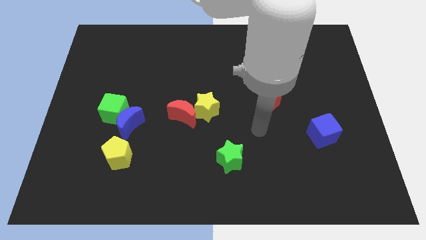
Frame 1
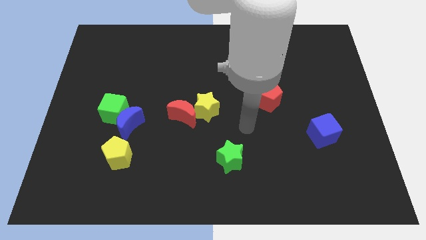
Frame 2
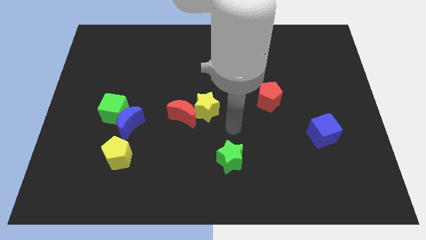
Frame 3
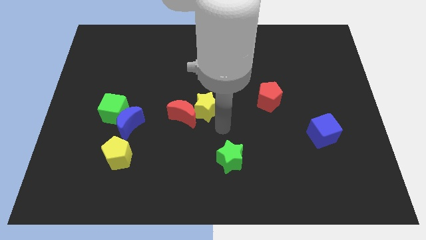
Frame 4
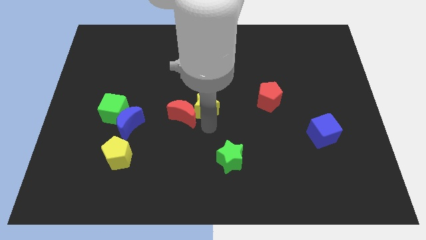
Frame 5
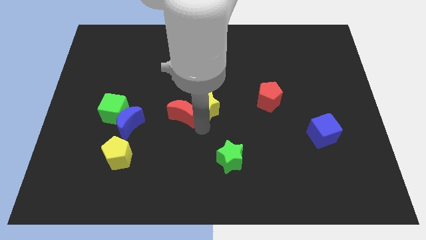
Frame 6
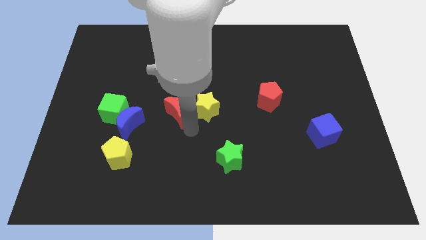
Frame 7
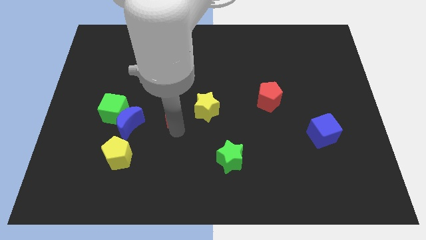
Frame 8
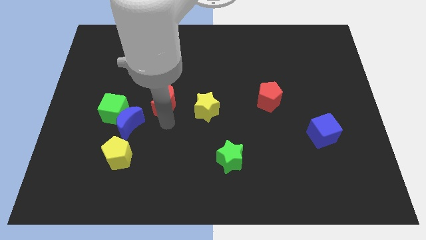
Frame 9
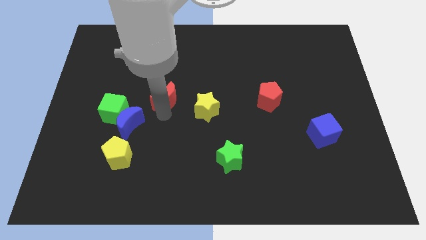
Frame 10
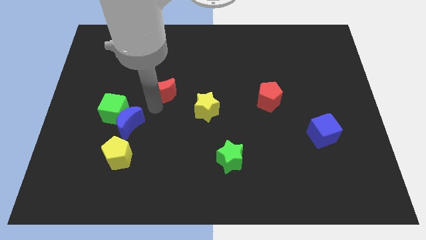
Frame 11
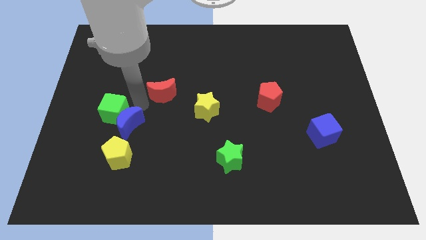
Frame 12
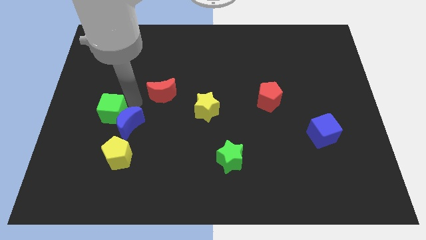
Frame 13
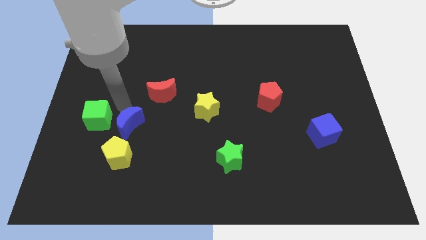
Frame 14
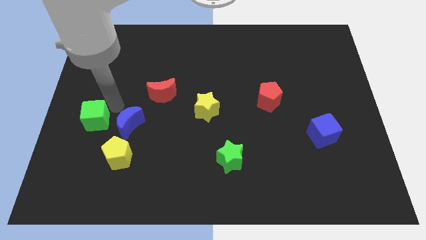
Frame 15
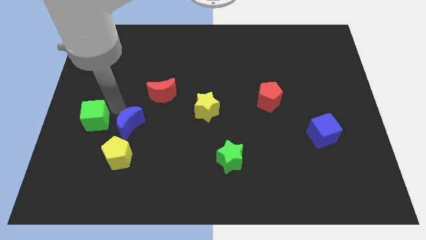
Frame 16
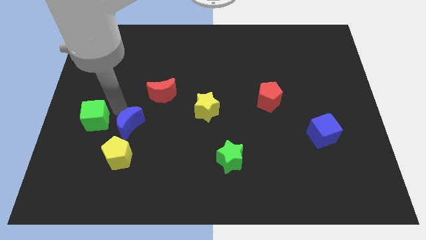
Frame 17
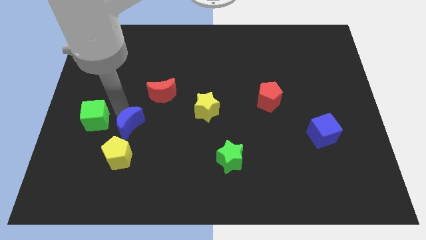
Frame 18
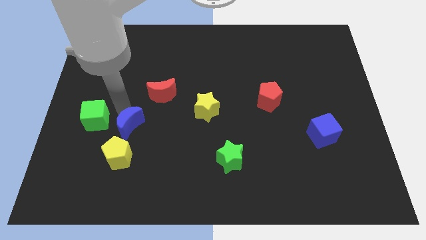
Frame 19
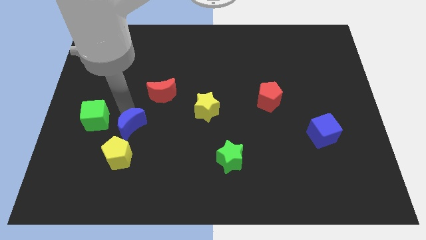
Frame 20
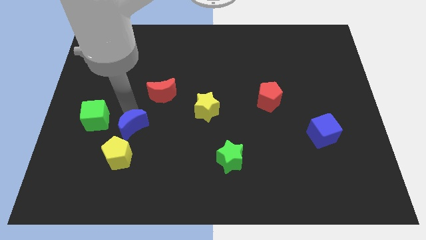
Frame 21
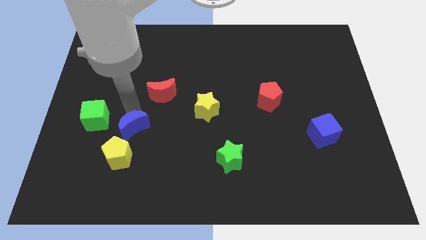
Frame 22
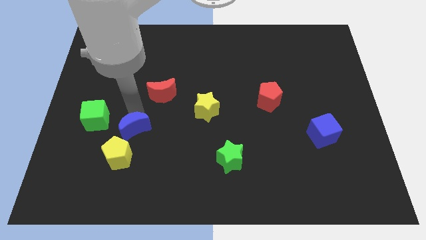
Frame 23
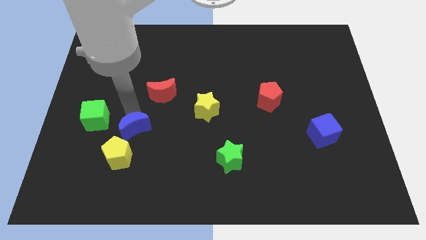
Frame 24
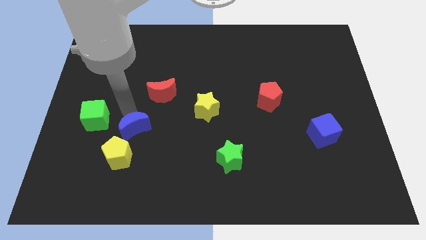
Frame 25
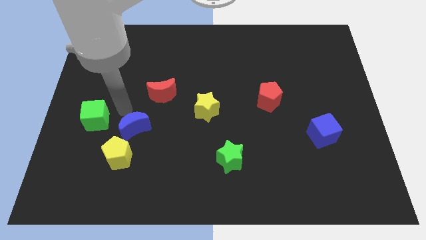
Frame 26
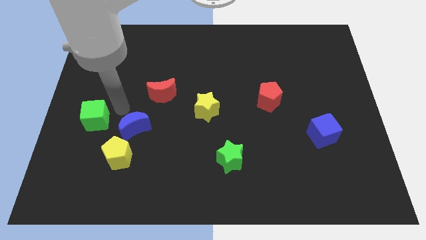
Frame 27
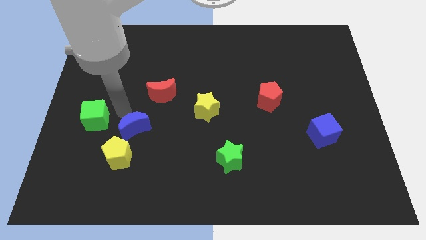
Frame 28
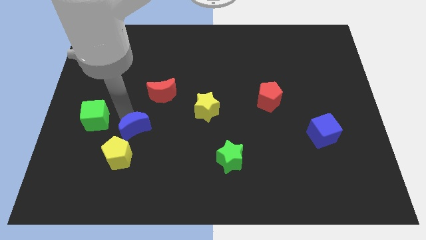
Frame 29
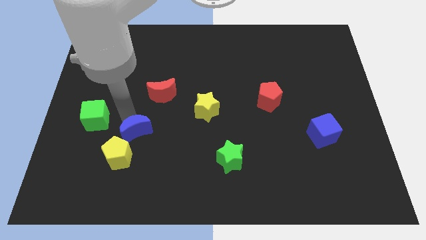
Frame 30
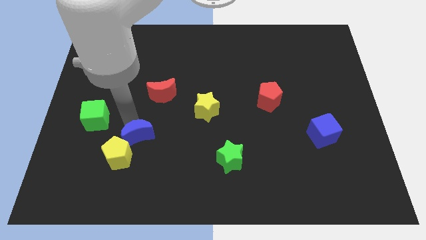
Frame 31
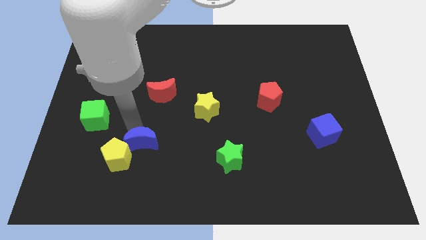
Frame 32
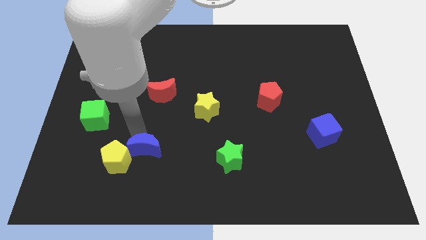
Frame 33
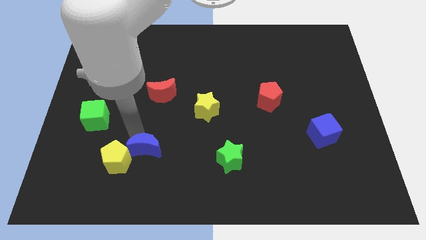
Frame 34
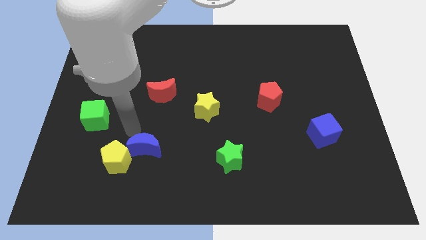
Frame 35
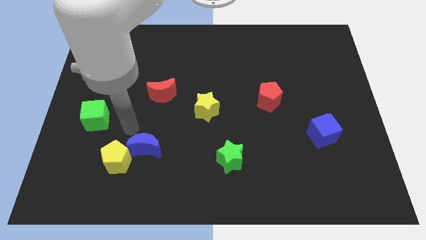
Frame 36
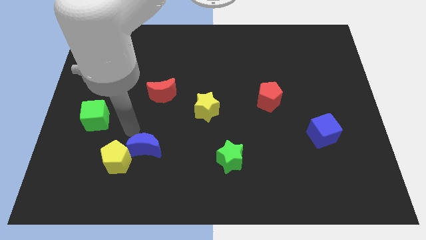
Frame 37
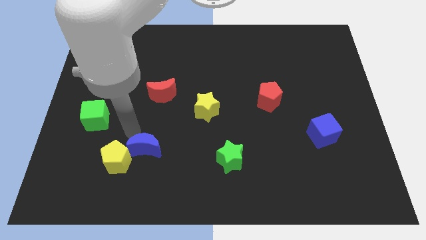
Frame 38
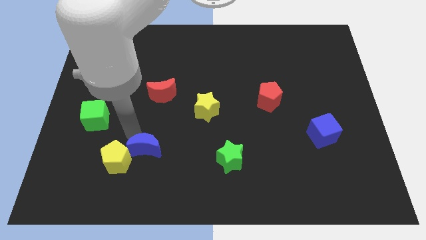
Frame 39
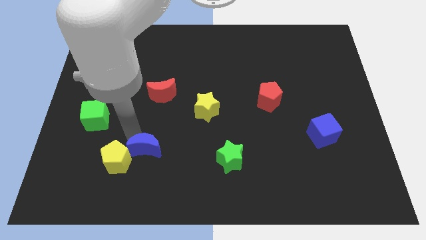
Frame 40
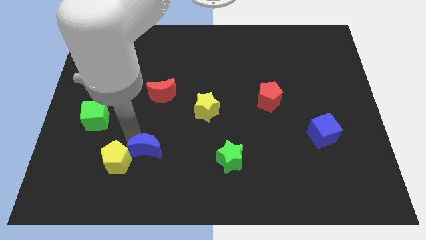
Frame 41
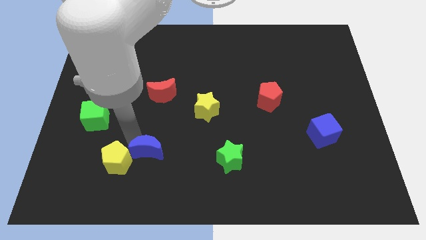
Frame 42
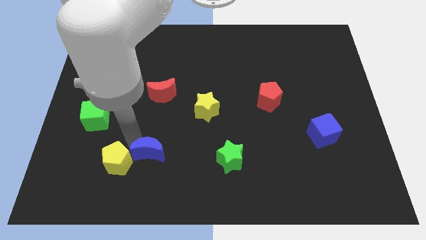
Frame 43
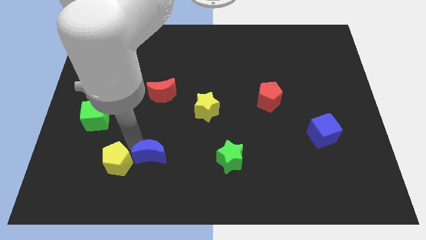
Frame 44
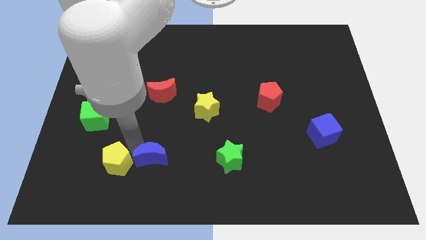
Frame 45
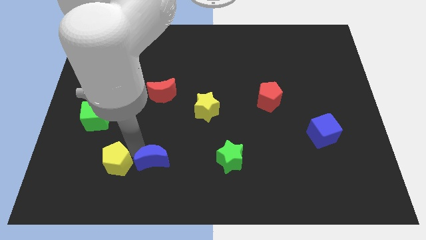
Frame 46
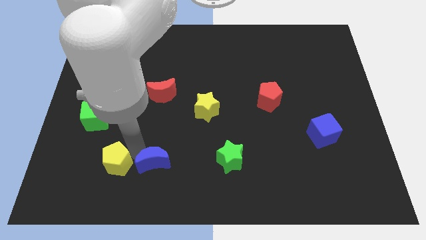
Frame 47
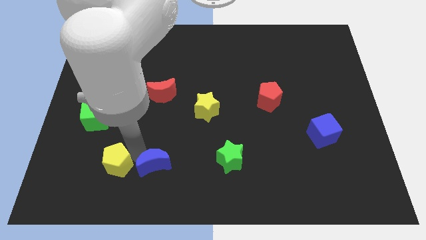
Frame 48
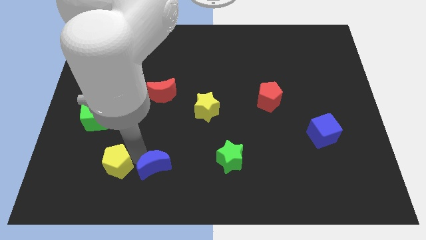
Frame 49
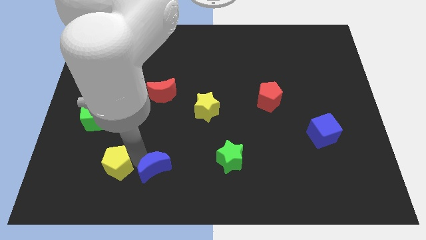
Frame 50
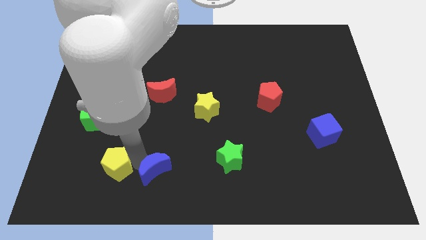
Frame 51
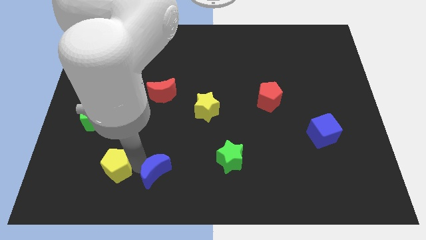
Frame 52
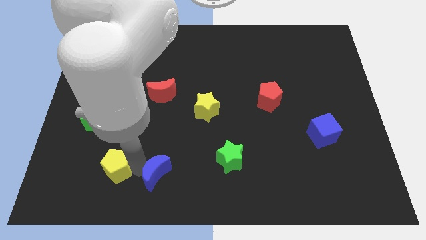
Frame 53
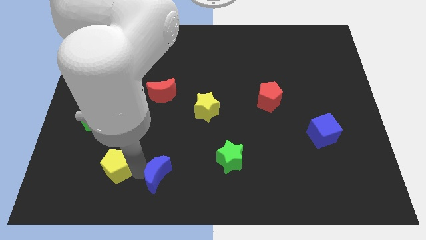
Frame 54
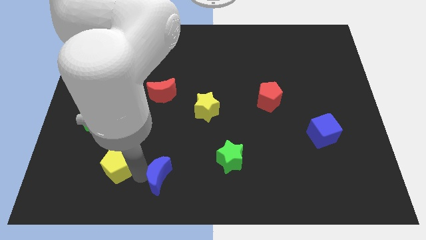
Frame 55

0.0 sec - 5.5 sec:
slide the blue moon to the bottom side

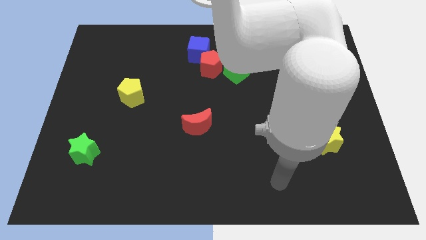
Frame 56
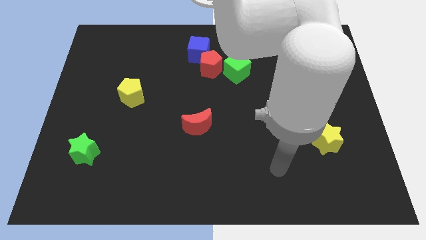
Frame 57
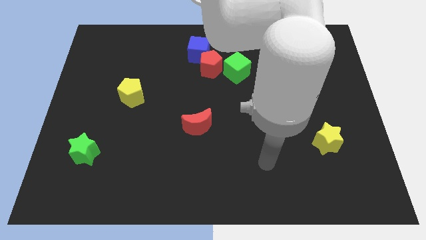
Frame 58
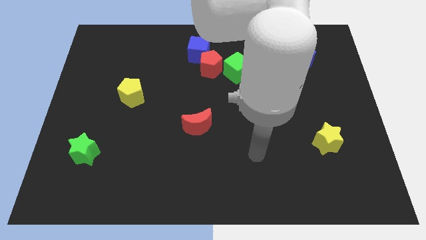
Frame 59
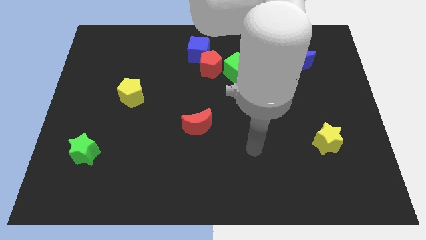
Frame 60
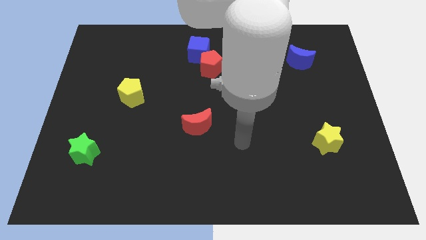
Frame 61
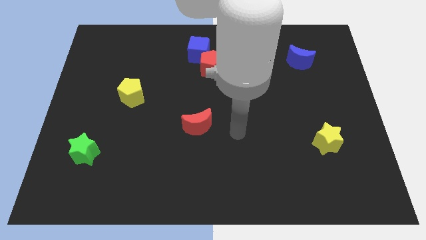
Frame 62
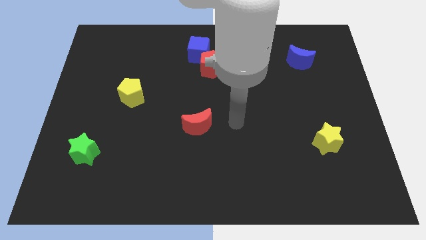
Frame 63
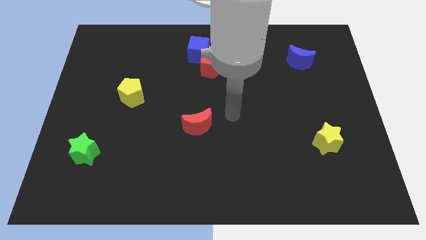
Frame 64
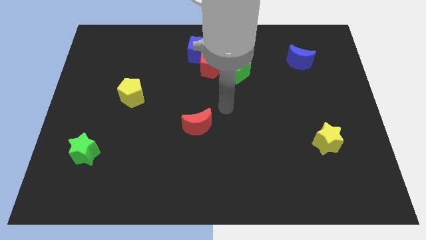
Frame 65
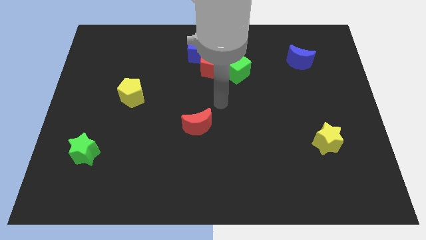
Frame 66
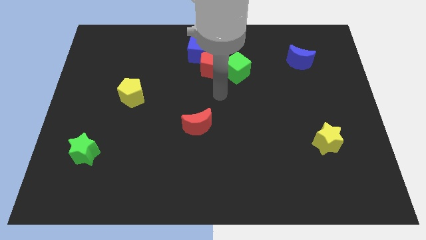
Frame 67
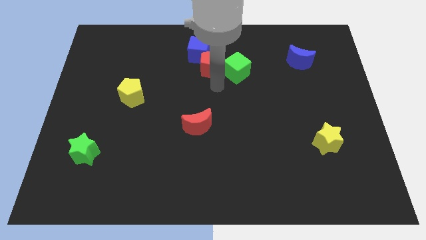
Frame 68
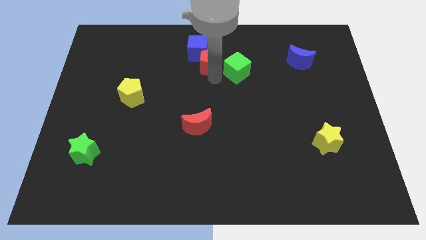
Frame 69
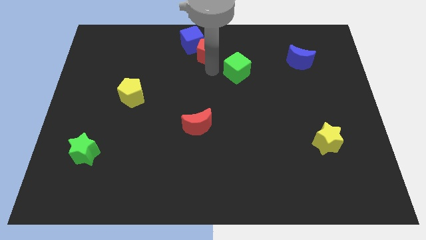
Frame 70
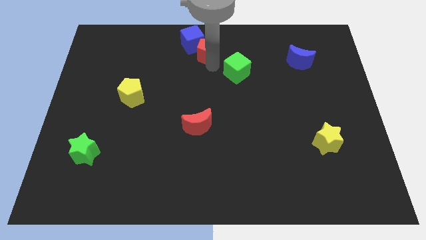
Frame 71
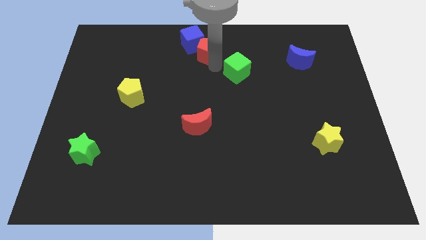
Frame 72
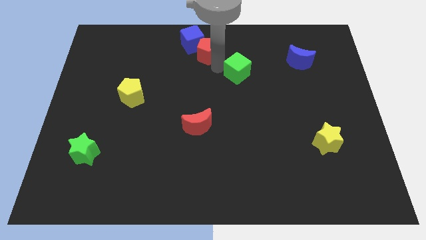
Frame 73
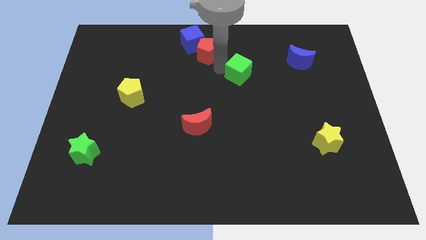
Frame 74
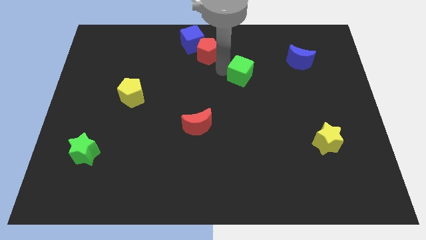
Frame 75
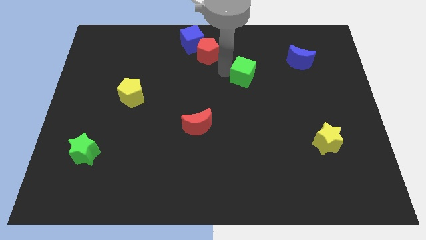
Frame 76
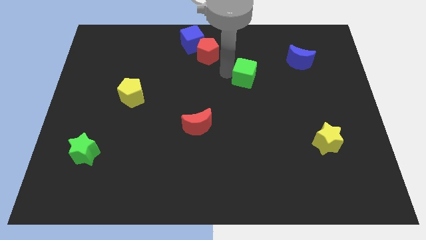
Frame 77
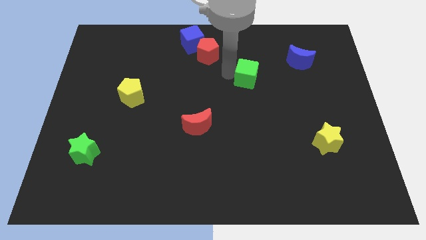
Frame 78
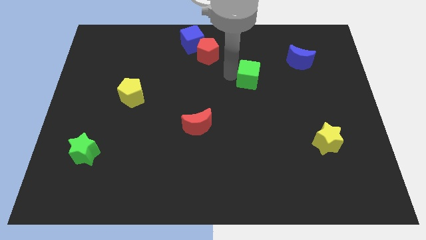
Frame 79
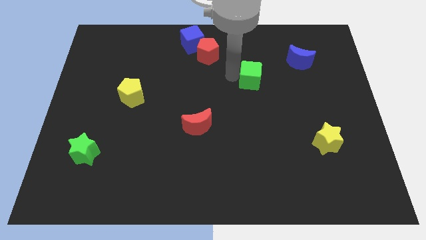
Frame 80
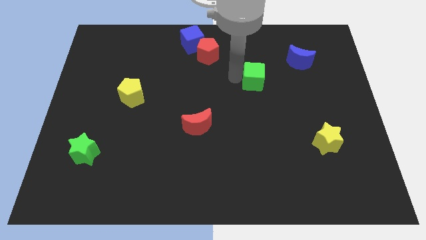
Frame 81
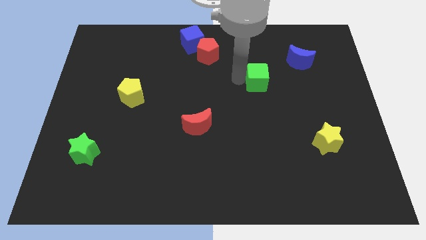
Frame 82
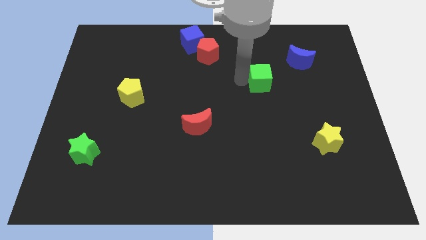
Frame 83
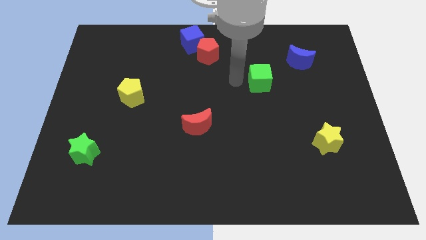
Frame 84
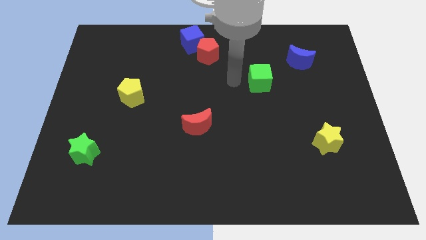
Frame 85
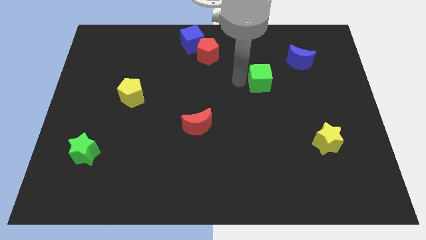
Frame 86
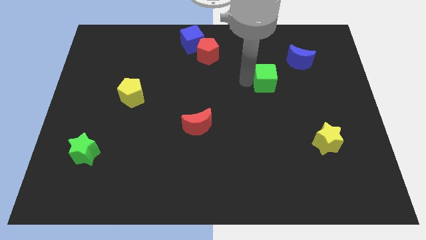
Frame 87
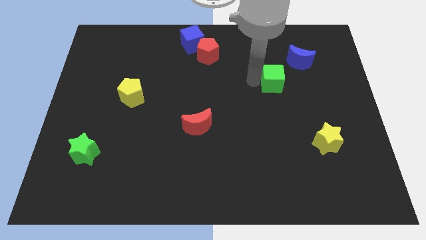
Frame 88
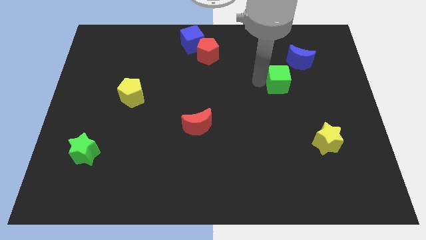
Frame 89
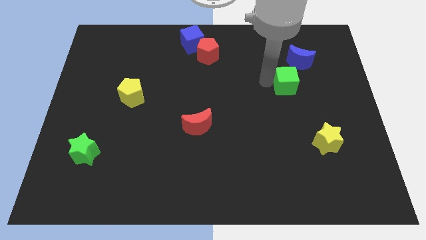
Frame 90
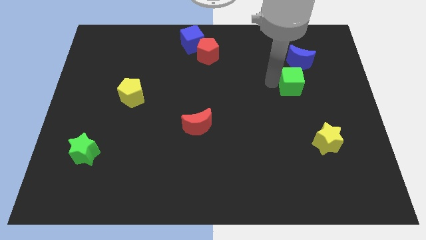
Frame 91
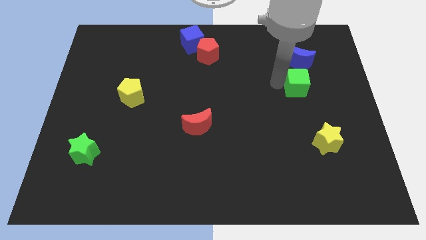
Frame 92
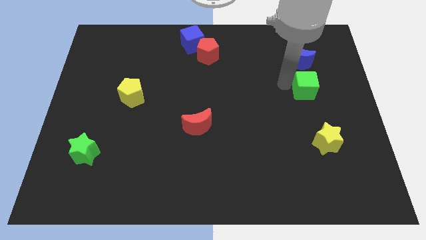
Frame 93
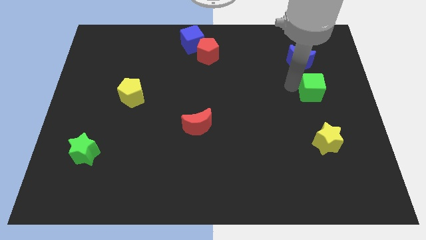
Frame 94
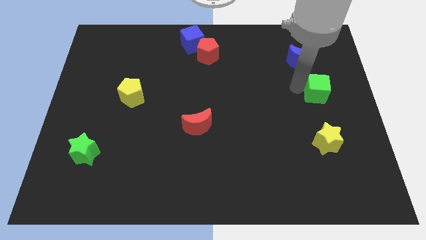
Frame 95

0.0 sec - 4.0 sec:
push the green cube to the right side of the board
